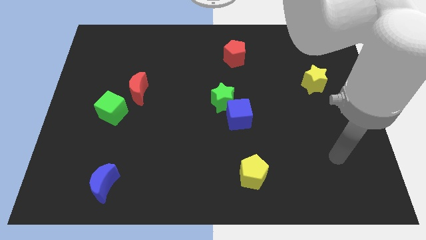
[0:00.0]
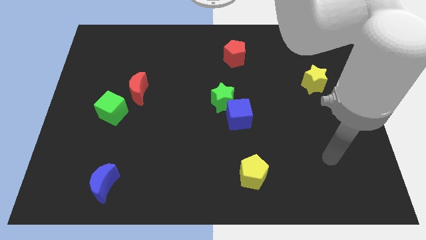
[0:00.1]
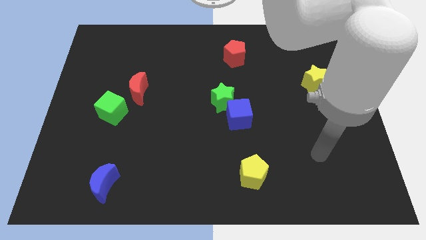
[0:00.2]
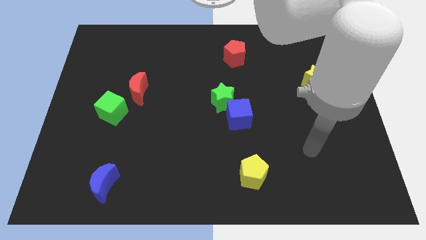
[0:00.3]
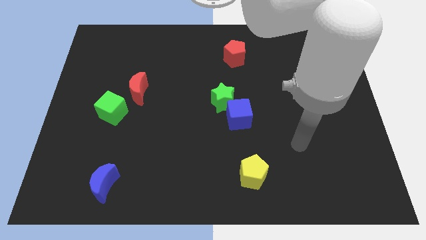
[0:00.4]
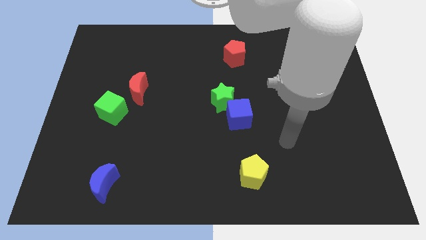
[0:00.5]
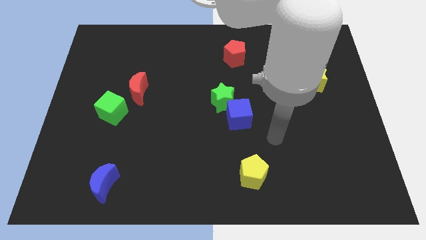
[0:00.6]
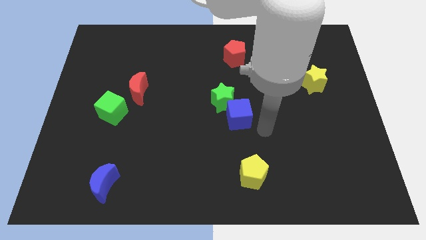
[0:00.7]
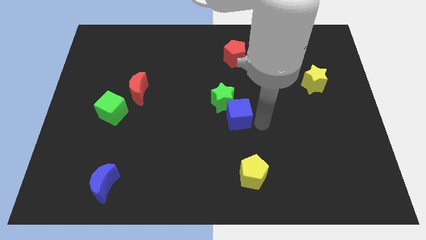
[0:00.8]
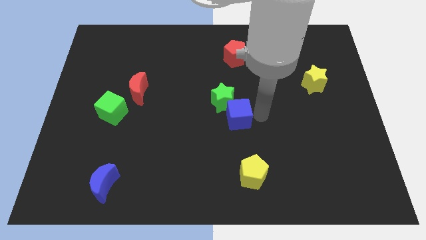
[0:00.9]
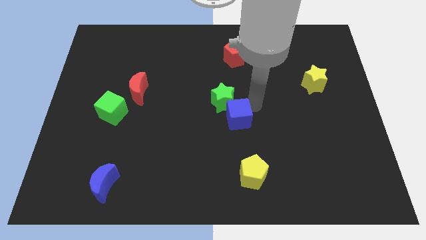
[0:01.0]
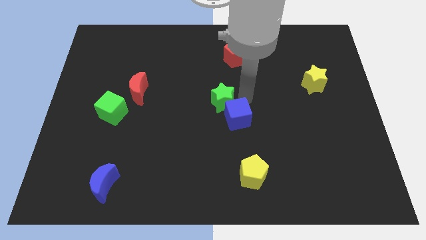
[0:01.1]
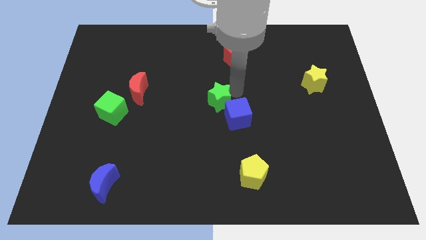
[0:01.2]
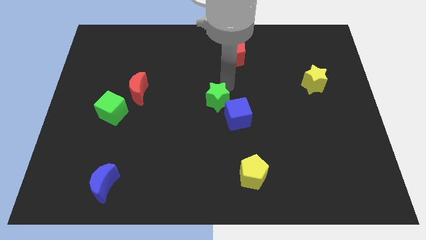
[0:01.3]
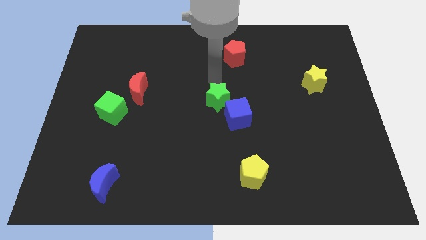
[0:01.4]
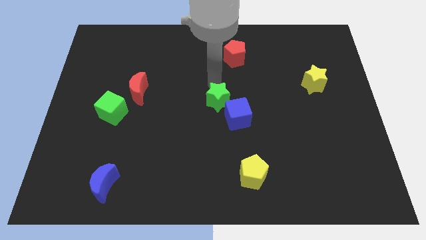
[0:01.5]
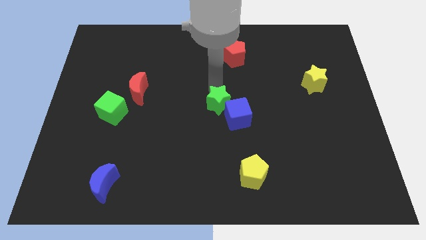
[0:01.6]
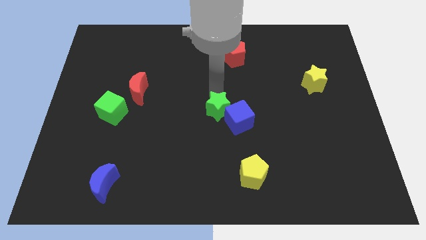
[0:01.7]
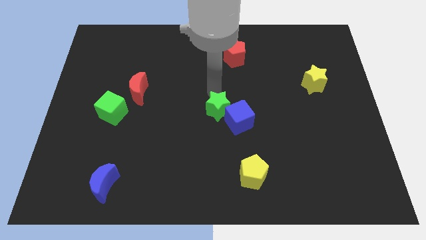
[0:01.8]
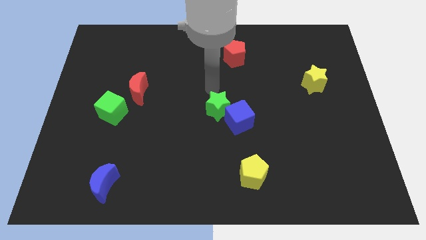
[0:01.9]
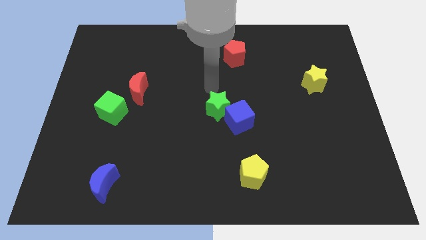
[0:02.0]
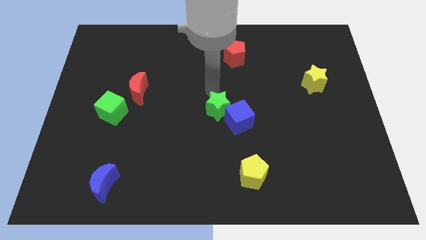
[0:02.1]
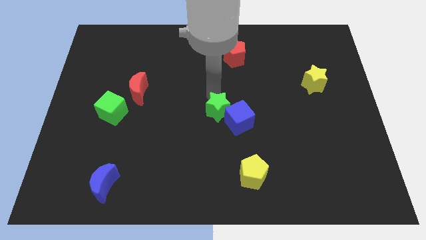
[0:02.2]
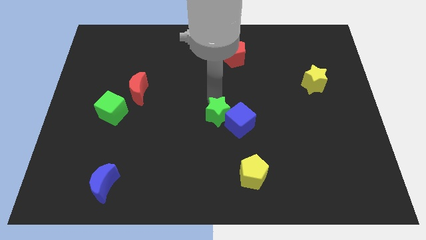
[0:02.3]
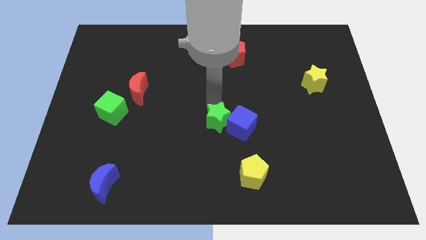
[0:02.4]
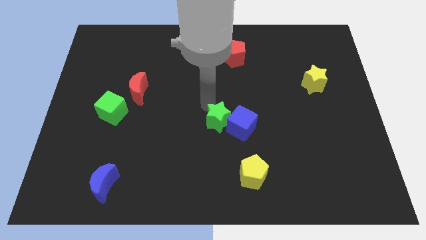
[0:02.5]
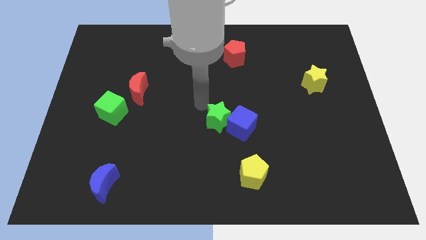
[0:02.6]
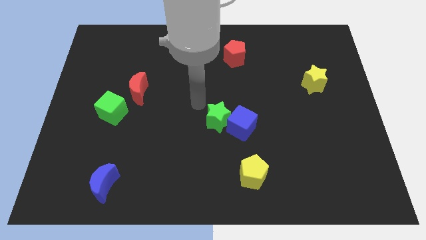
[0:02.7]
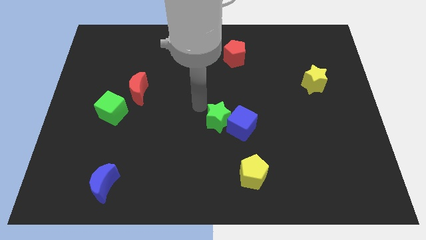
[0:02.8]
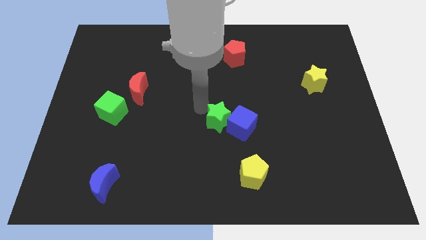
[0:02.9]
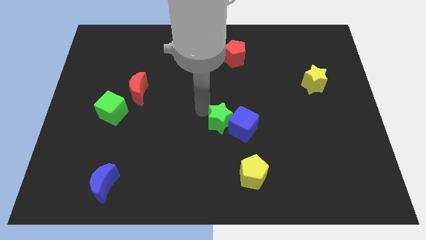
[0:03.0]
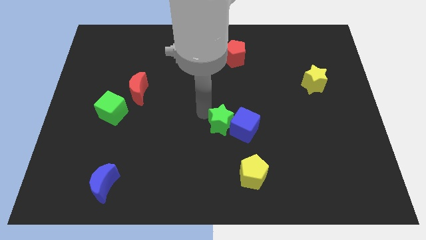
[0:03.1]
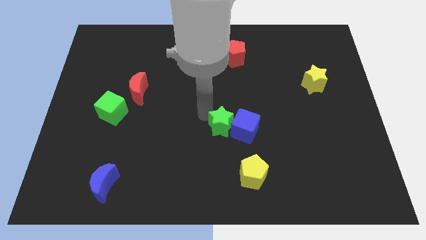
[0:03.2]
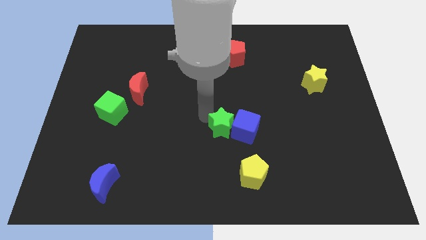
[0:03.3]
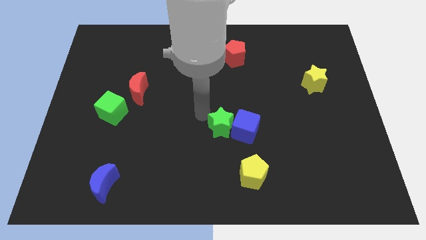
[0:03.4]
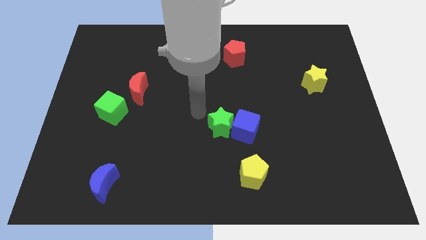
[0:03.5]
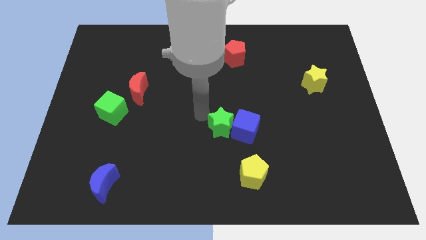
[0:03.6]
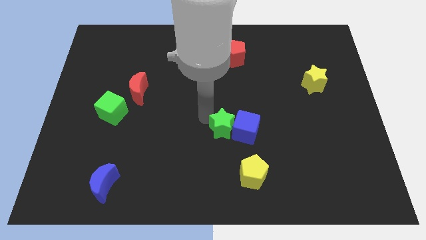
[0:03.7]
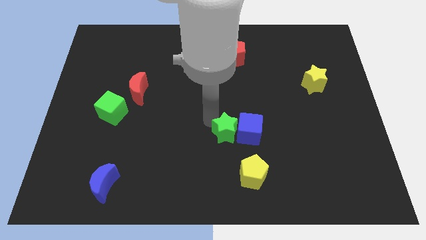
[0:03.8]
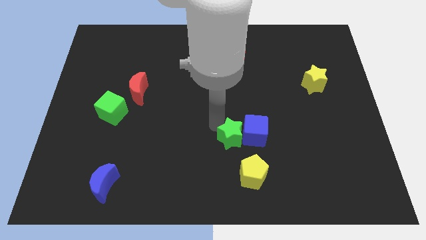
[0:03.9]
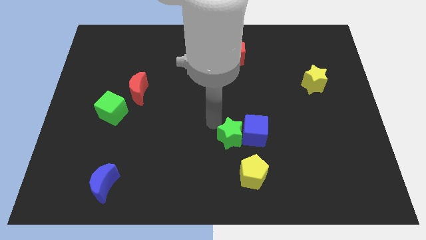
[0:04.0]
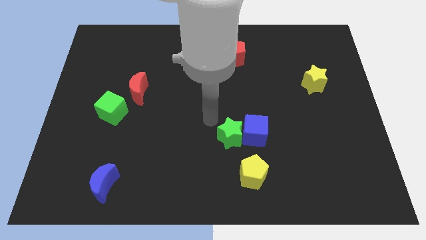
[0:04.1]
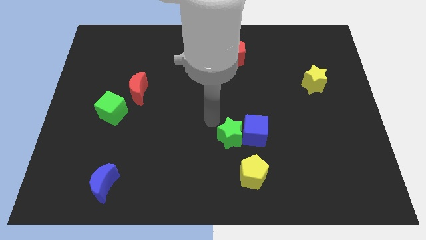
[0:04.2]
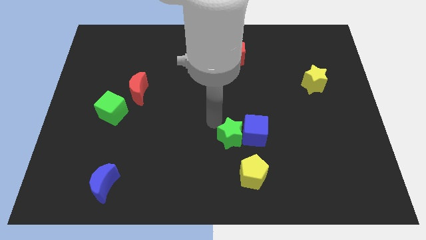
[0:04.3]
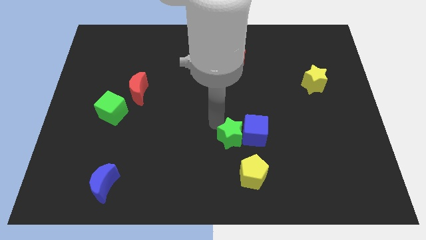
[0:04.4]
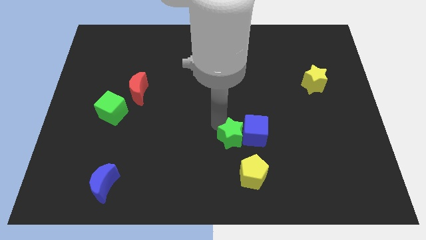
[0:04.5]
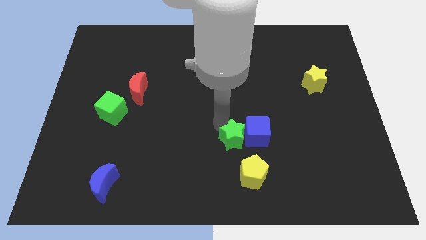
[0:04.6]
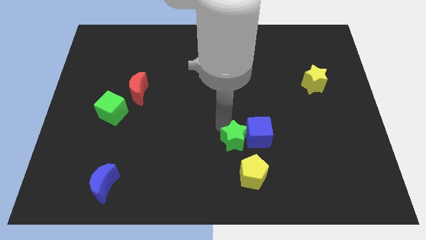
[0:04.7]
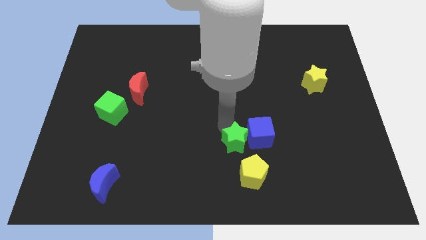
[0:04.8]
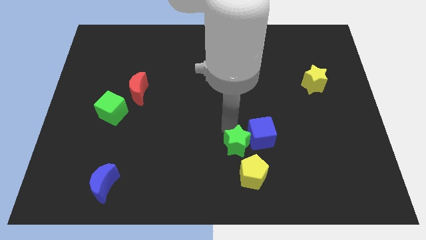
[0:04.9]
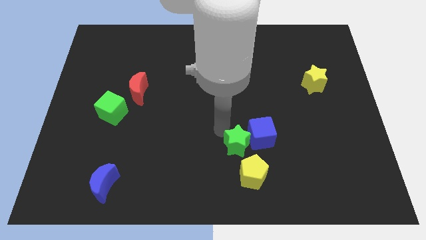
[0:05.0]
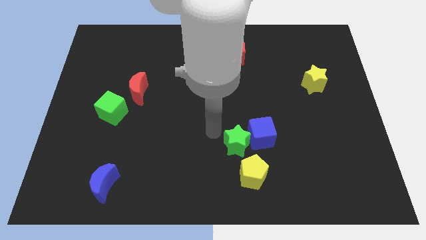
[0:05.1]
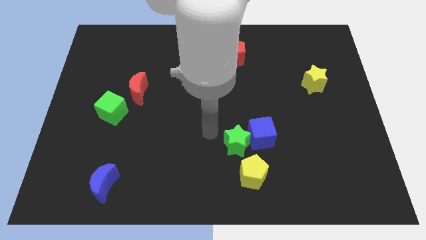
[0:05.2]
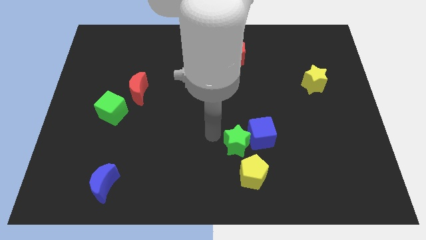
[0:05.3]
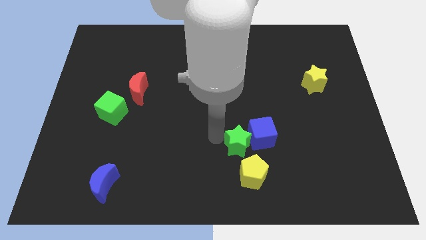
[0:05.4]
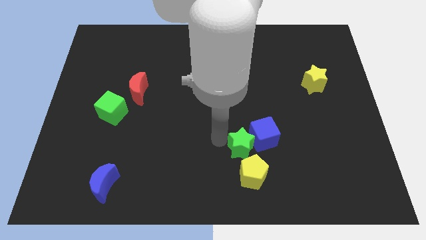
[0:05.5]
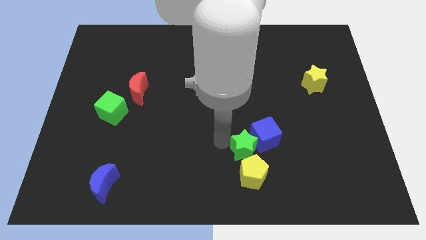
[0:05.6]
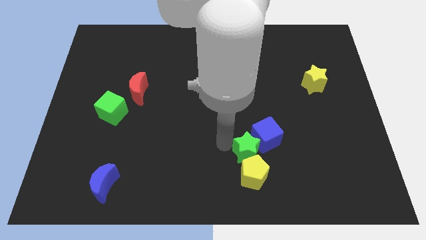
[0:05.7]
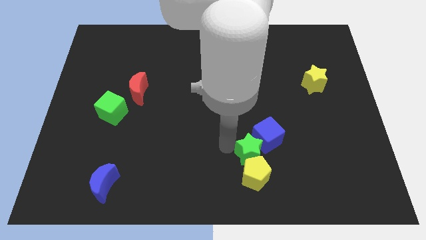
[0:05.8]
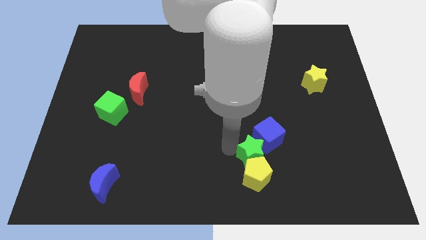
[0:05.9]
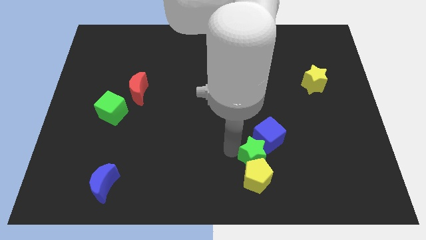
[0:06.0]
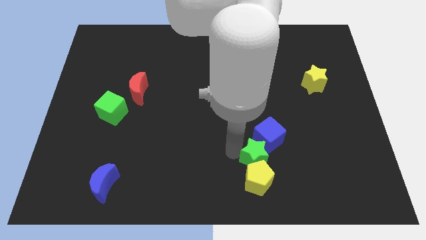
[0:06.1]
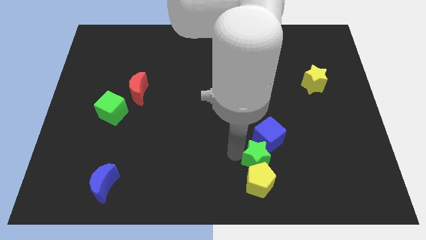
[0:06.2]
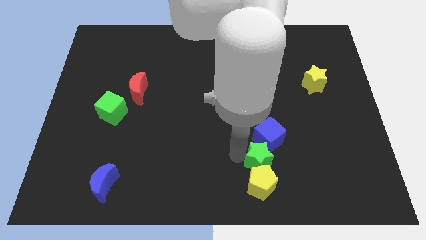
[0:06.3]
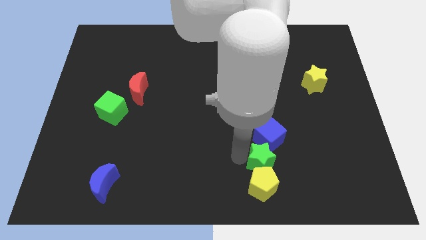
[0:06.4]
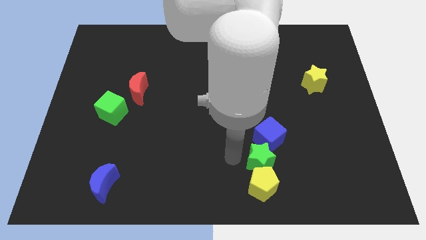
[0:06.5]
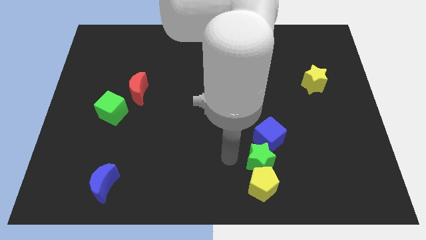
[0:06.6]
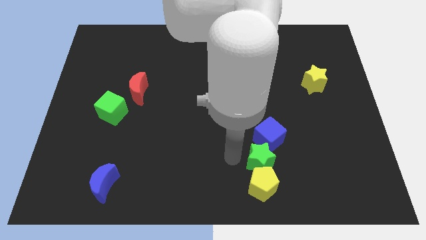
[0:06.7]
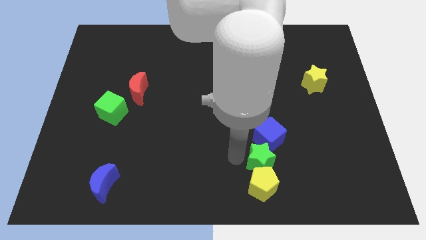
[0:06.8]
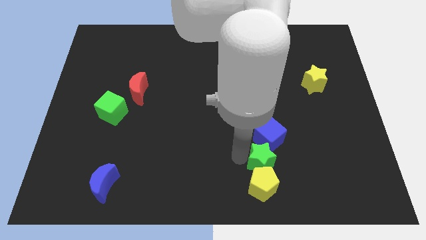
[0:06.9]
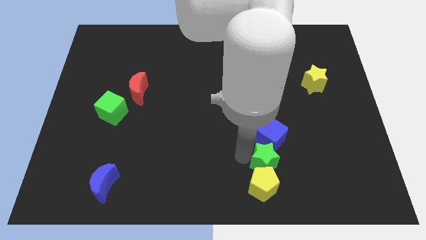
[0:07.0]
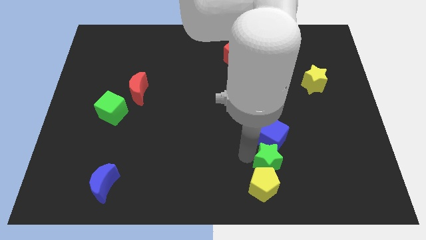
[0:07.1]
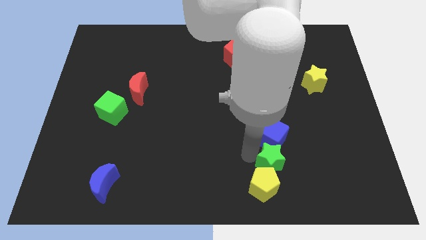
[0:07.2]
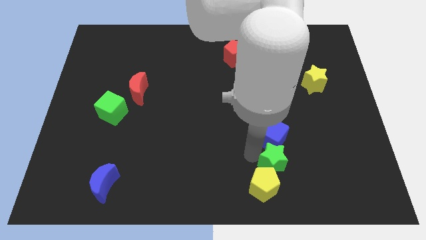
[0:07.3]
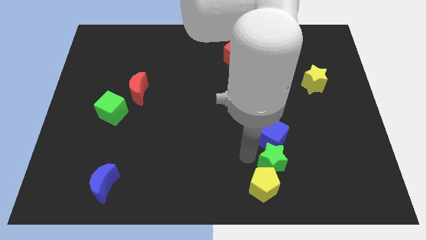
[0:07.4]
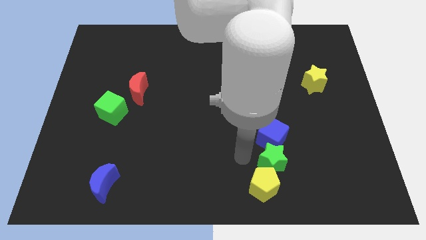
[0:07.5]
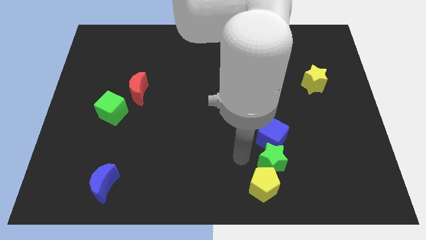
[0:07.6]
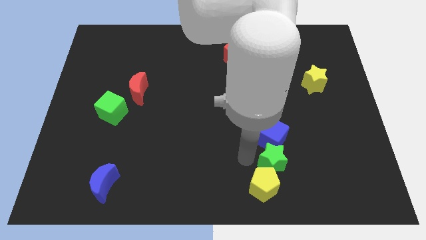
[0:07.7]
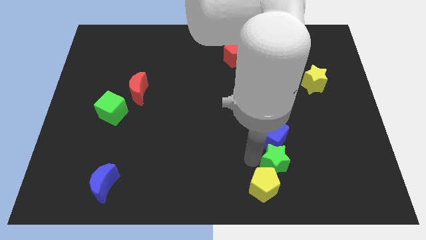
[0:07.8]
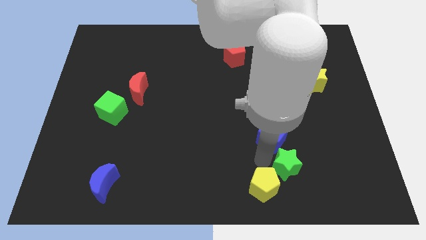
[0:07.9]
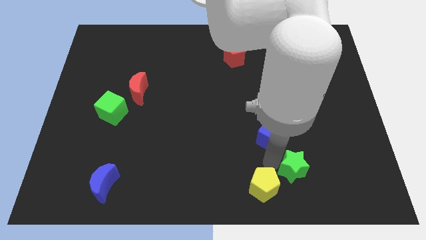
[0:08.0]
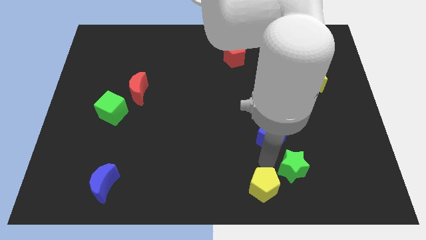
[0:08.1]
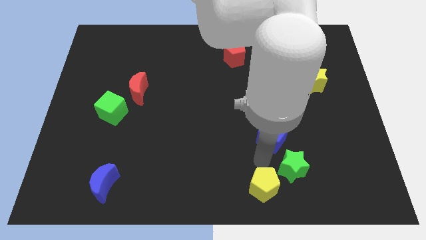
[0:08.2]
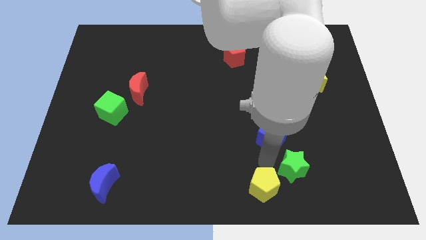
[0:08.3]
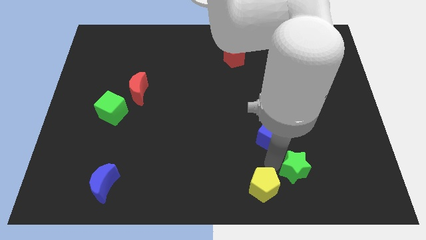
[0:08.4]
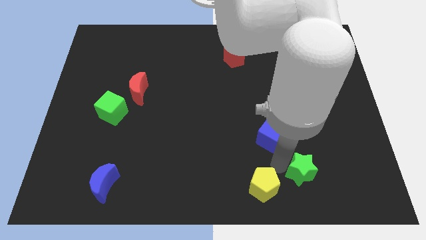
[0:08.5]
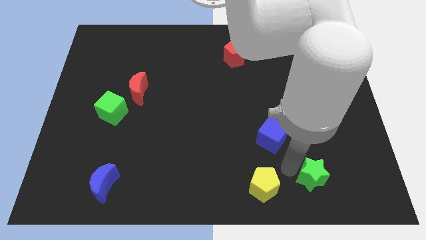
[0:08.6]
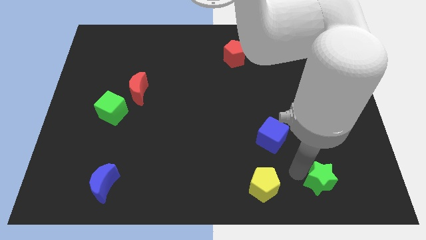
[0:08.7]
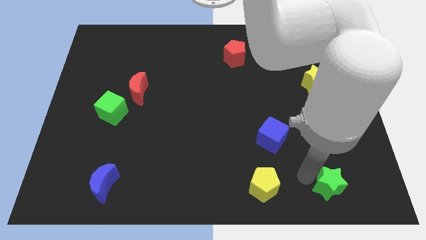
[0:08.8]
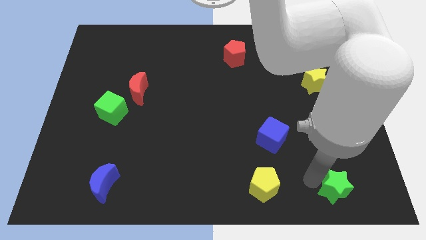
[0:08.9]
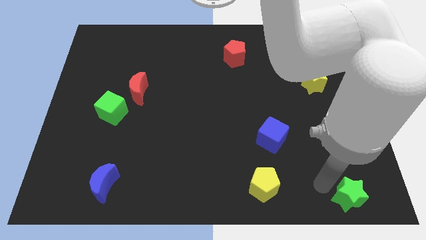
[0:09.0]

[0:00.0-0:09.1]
put the green star to the lower right corner
